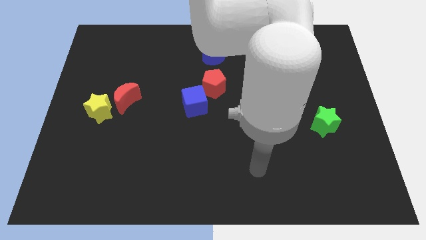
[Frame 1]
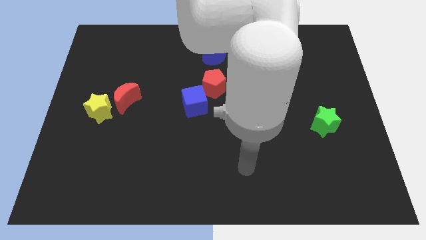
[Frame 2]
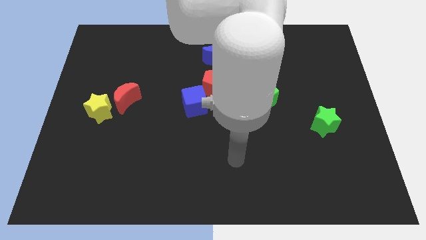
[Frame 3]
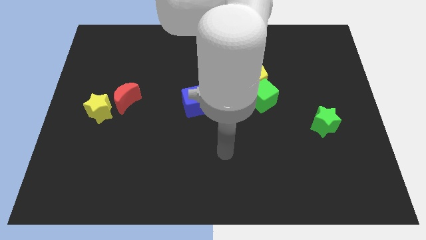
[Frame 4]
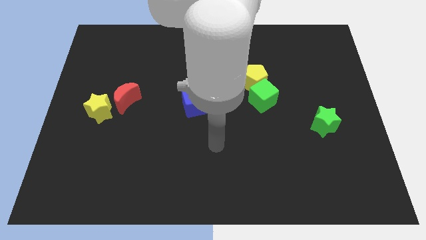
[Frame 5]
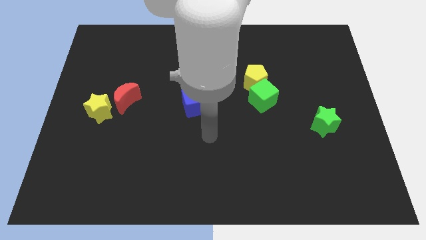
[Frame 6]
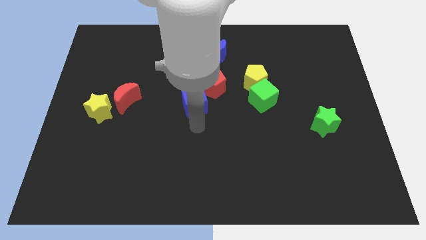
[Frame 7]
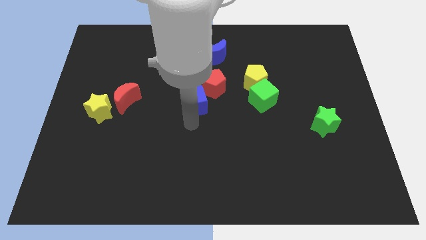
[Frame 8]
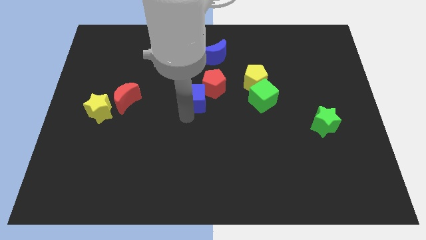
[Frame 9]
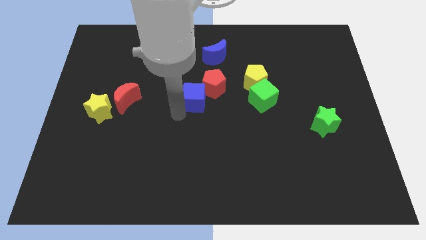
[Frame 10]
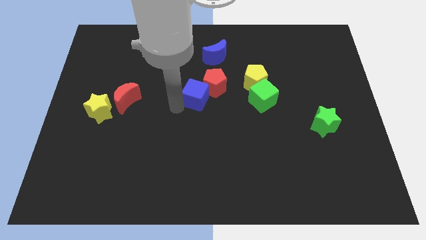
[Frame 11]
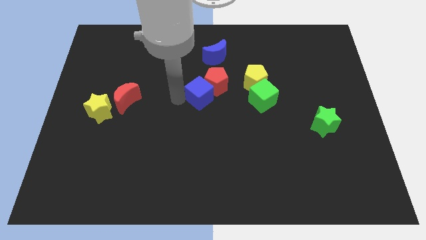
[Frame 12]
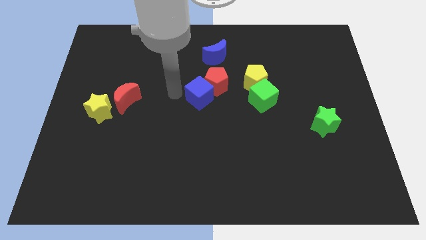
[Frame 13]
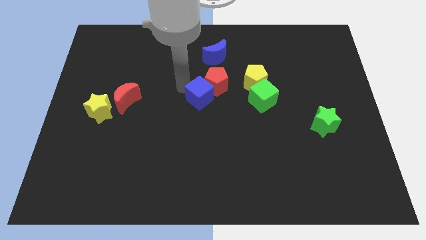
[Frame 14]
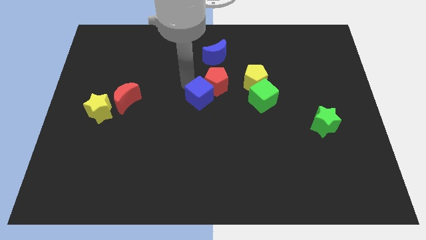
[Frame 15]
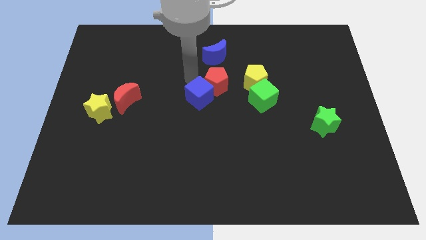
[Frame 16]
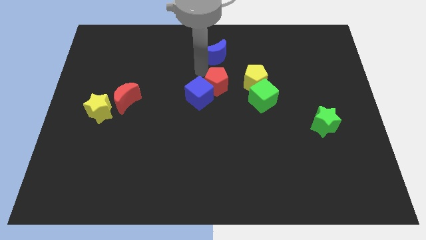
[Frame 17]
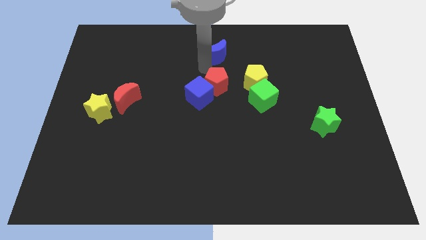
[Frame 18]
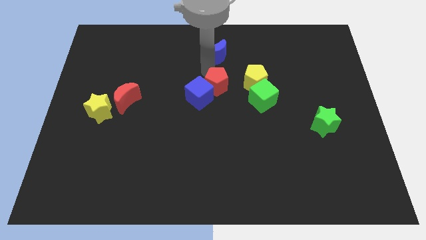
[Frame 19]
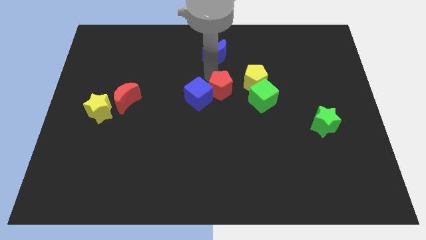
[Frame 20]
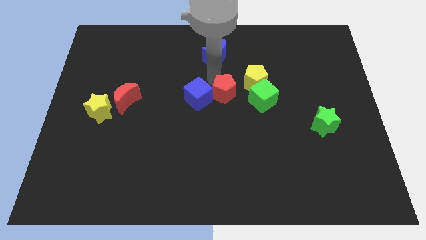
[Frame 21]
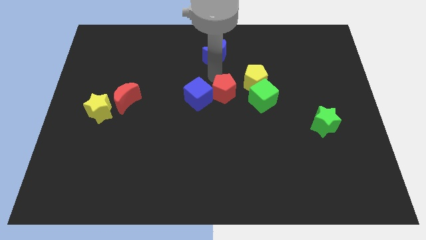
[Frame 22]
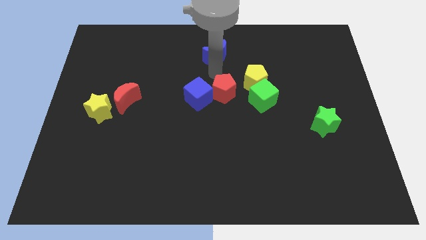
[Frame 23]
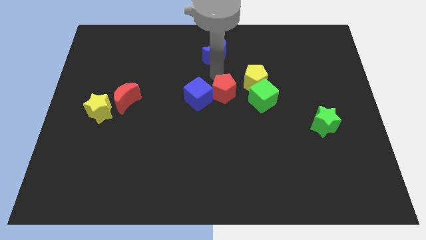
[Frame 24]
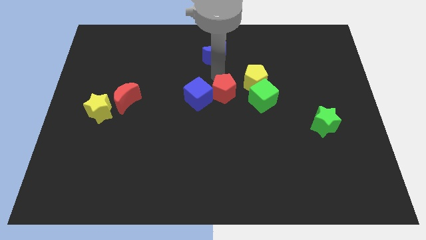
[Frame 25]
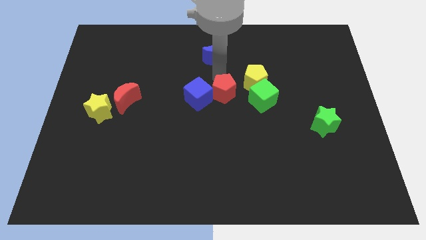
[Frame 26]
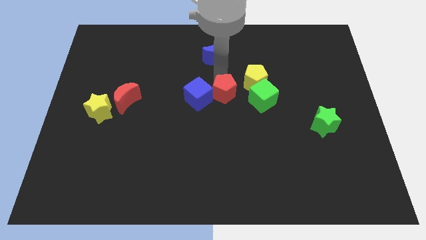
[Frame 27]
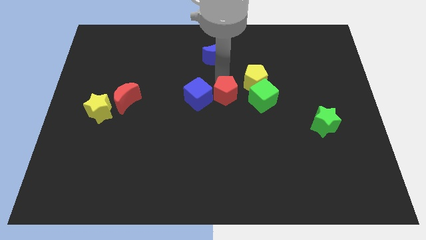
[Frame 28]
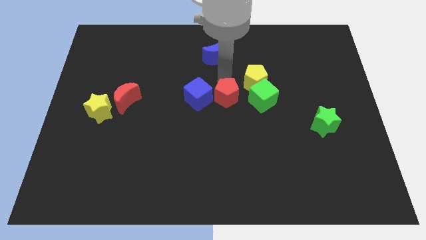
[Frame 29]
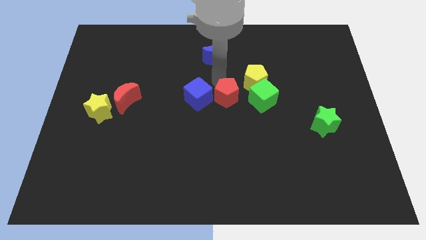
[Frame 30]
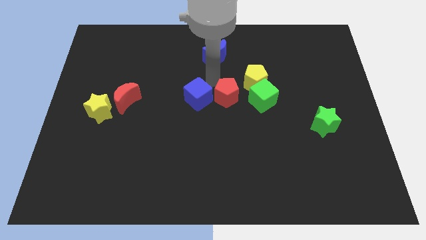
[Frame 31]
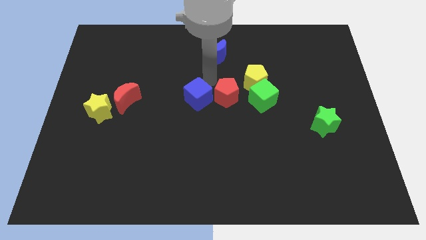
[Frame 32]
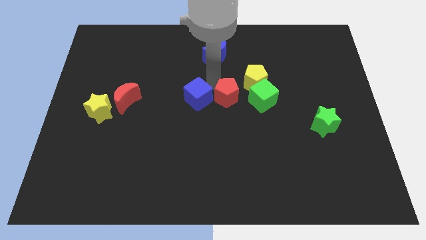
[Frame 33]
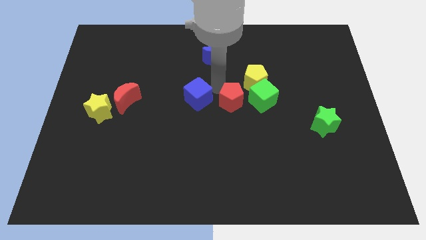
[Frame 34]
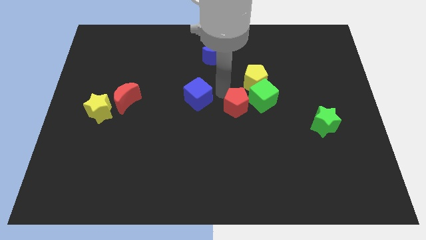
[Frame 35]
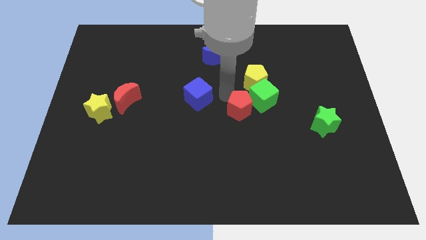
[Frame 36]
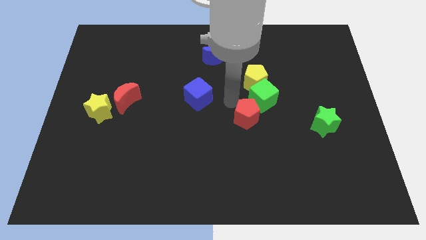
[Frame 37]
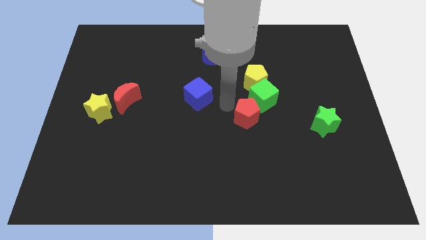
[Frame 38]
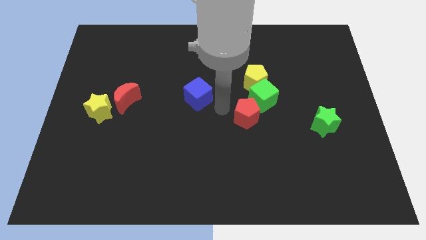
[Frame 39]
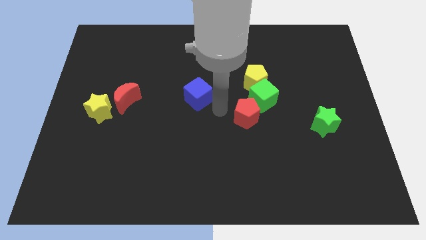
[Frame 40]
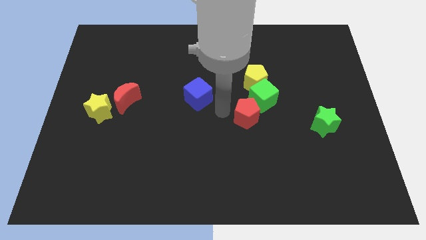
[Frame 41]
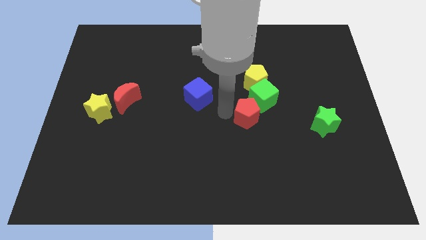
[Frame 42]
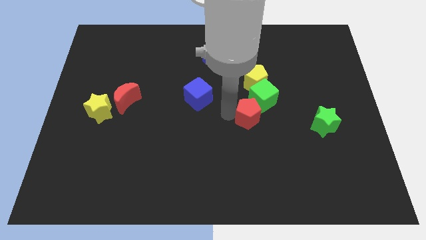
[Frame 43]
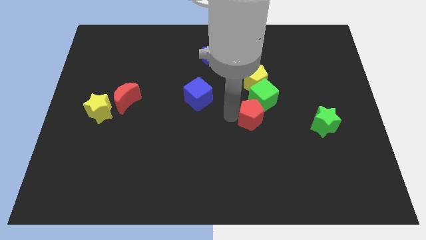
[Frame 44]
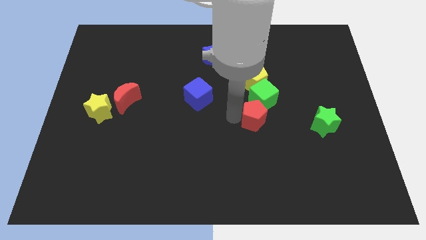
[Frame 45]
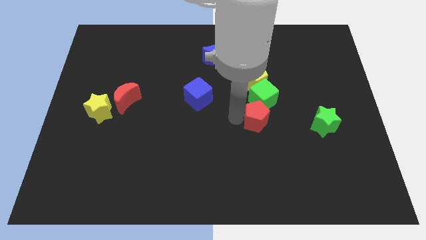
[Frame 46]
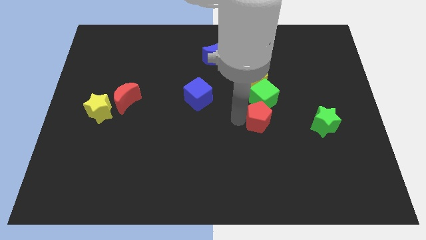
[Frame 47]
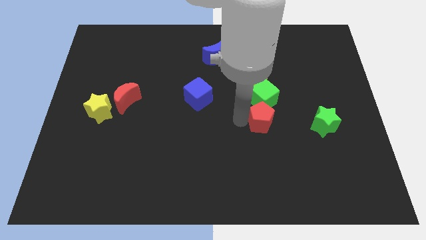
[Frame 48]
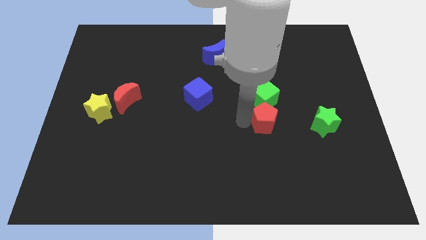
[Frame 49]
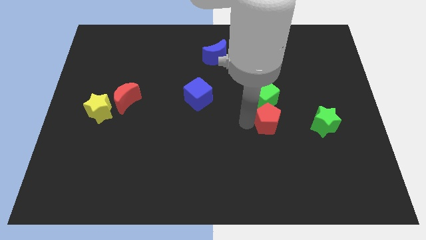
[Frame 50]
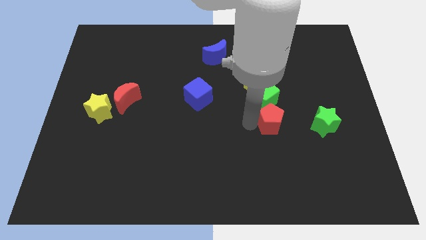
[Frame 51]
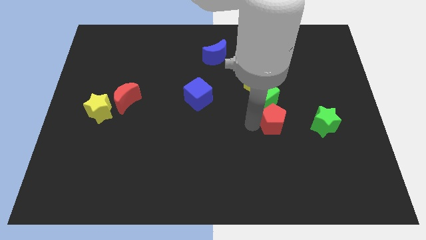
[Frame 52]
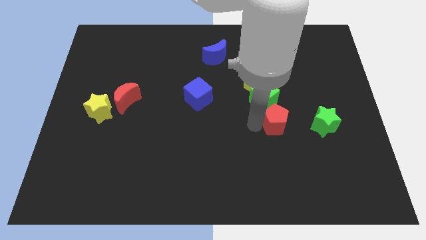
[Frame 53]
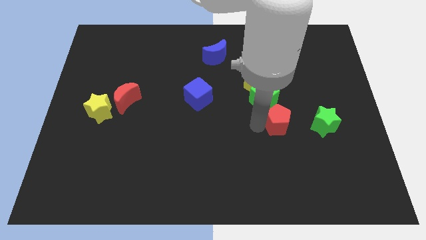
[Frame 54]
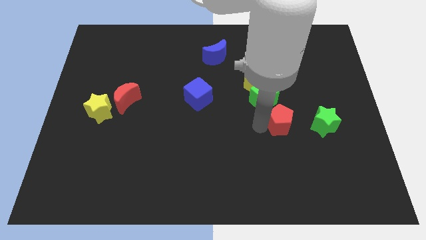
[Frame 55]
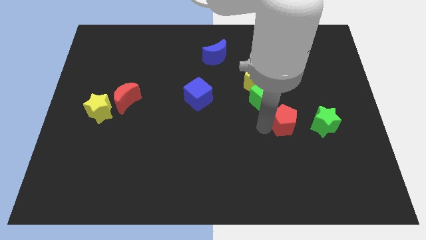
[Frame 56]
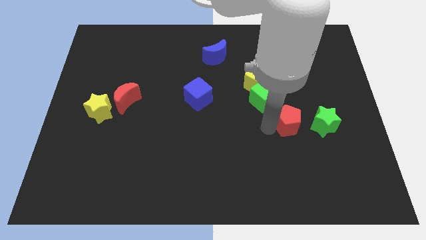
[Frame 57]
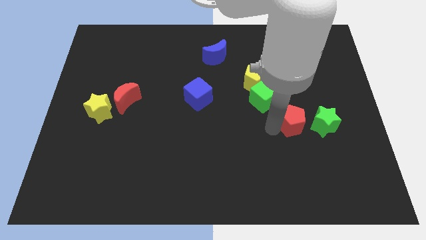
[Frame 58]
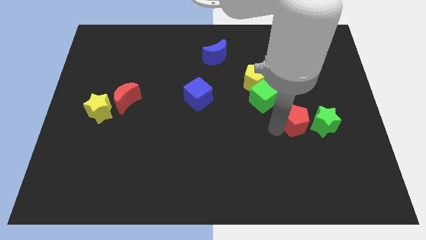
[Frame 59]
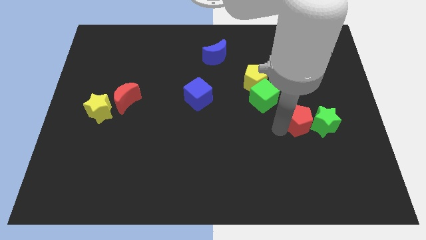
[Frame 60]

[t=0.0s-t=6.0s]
move the red pentagon next to the green star

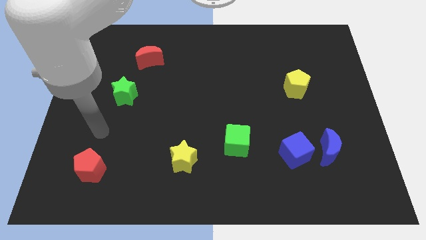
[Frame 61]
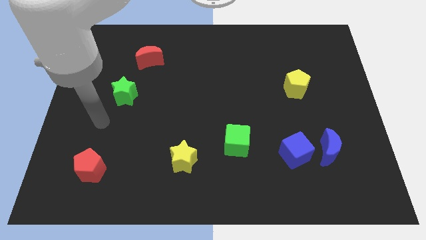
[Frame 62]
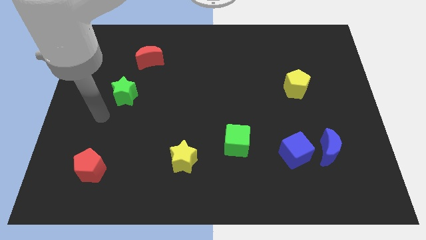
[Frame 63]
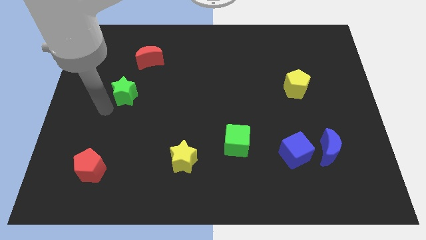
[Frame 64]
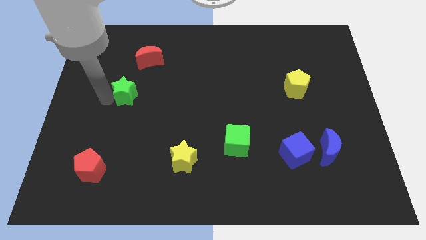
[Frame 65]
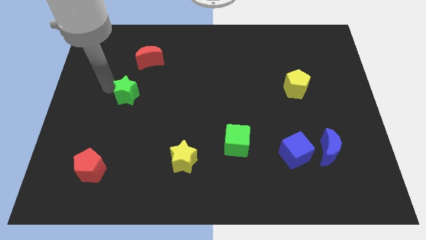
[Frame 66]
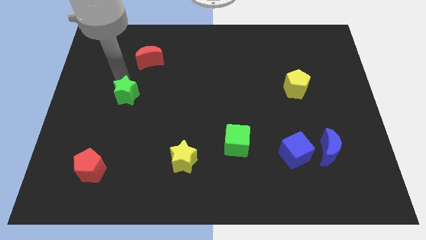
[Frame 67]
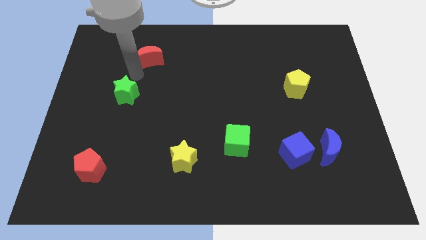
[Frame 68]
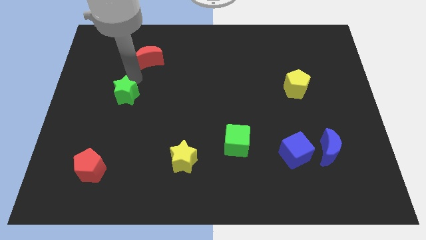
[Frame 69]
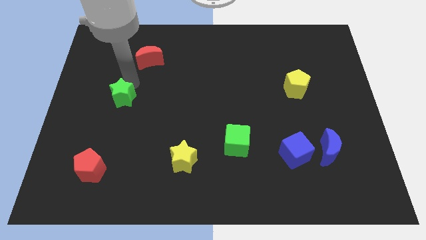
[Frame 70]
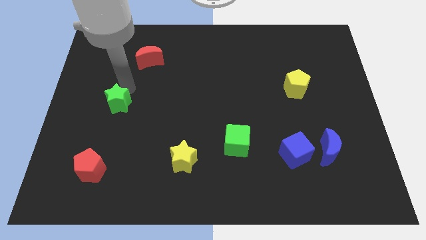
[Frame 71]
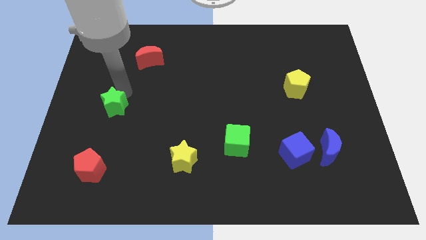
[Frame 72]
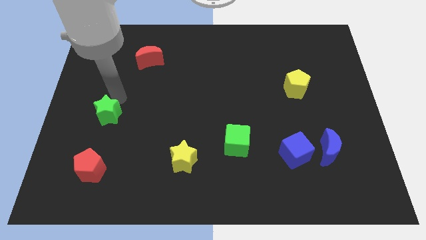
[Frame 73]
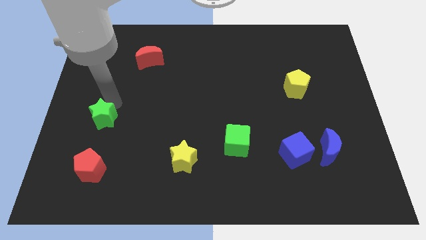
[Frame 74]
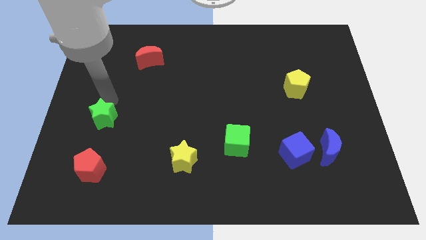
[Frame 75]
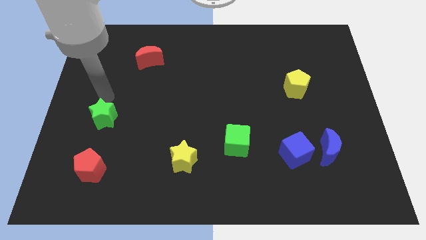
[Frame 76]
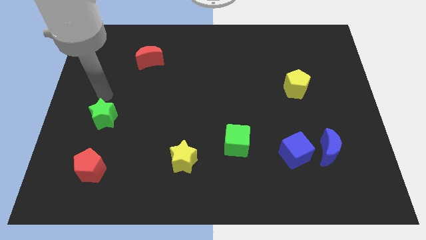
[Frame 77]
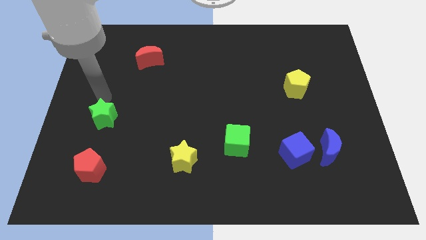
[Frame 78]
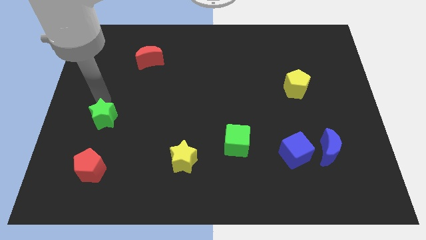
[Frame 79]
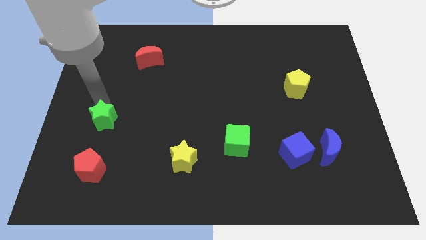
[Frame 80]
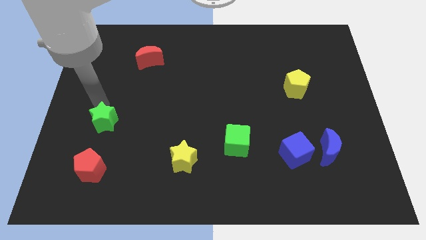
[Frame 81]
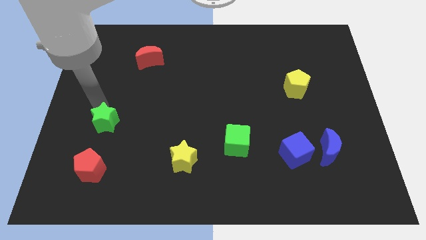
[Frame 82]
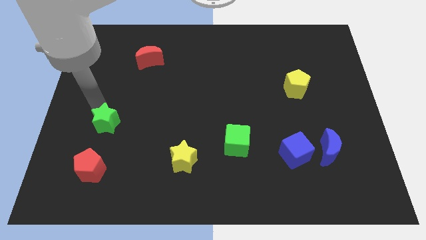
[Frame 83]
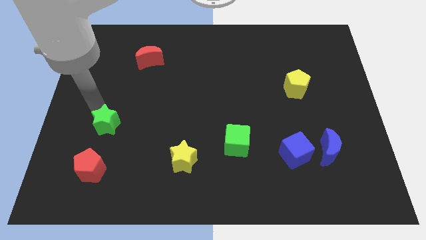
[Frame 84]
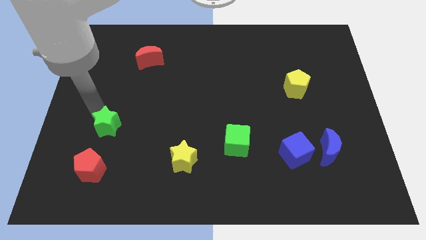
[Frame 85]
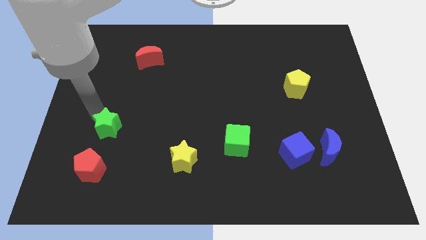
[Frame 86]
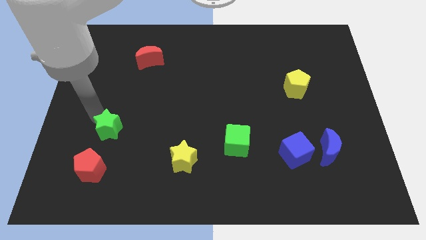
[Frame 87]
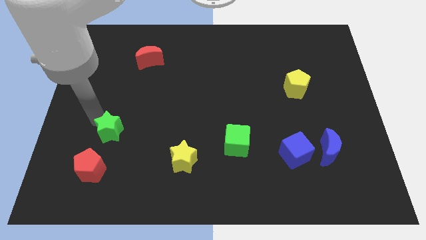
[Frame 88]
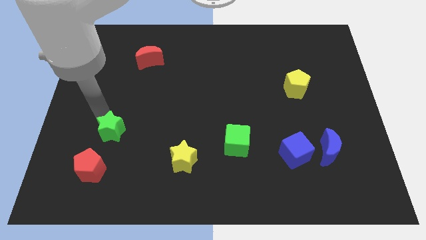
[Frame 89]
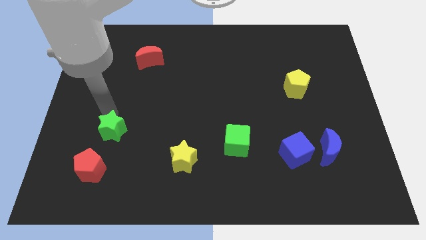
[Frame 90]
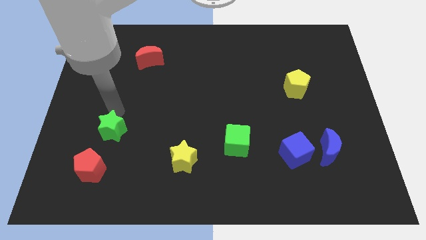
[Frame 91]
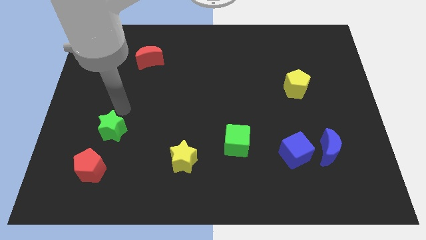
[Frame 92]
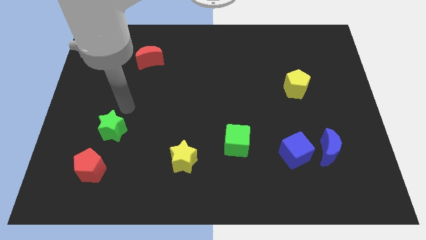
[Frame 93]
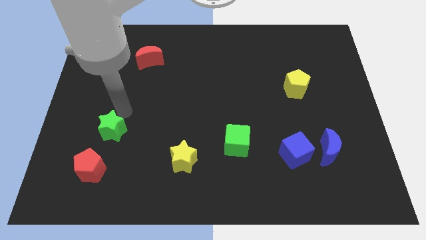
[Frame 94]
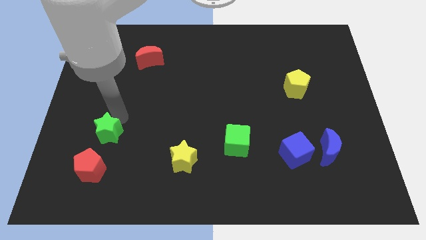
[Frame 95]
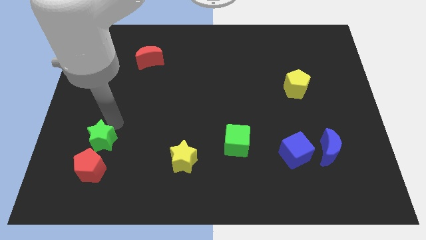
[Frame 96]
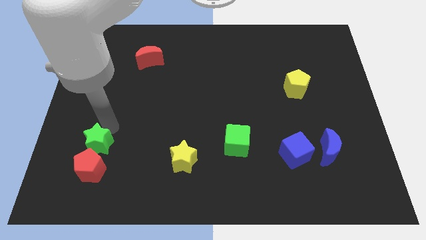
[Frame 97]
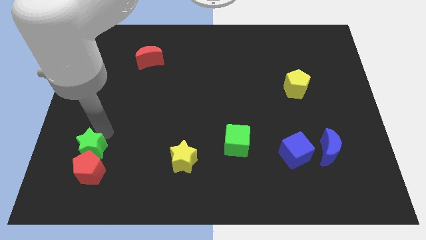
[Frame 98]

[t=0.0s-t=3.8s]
slide the green star next to the red pentagon
